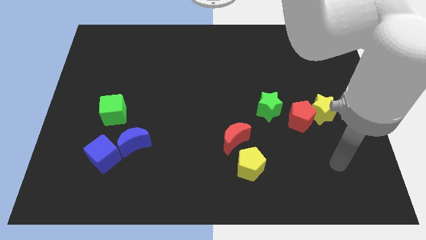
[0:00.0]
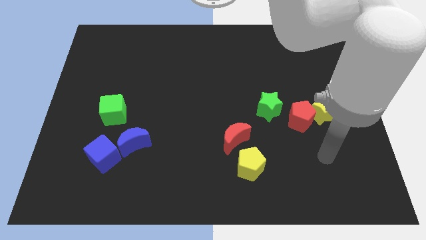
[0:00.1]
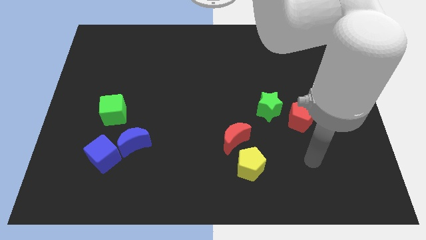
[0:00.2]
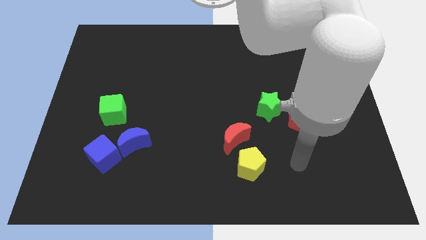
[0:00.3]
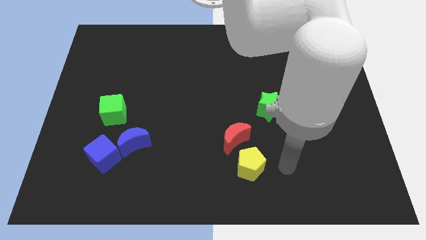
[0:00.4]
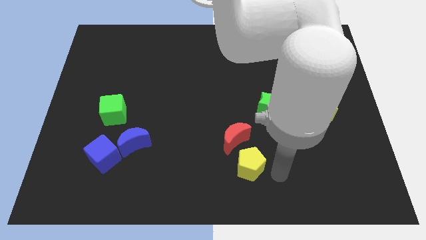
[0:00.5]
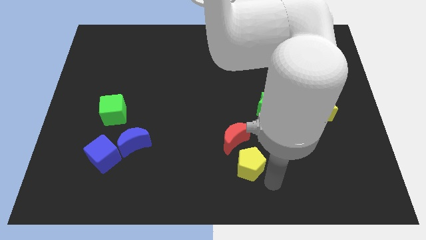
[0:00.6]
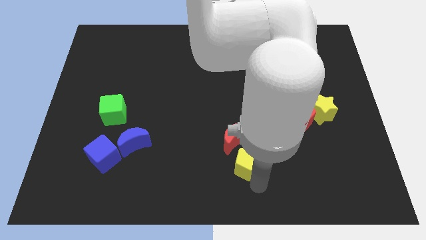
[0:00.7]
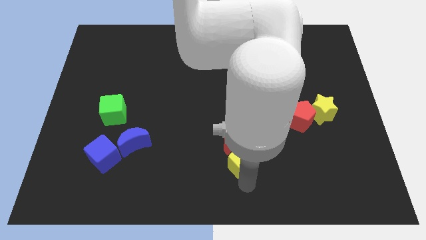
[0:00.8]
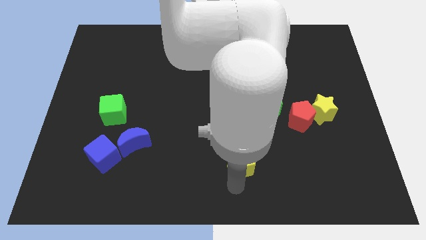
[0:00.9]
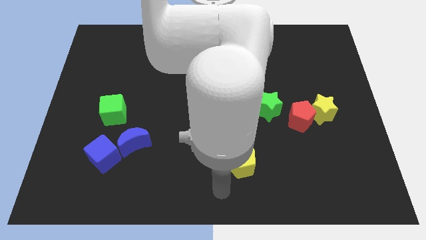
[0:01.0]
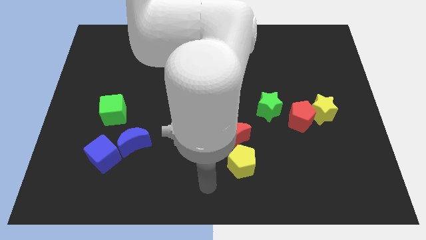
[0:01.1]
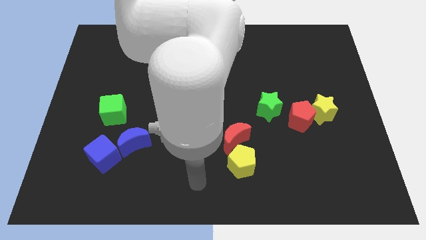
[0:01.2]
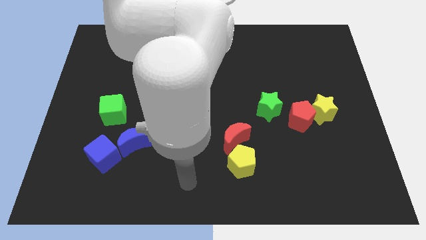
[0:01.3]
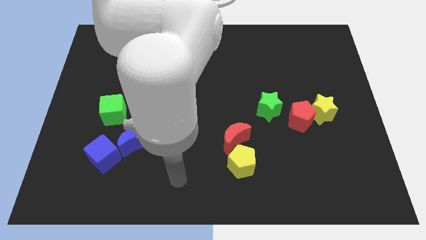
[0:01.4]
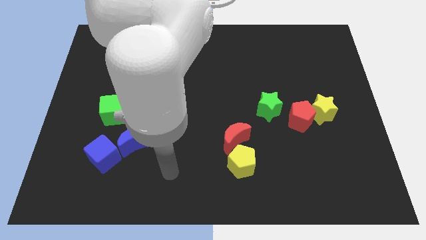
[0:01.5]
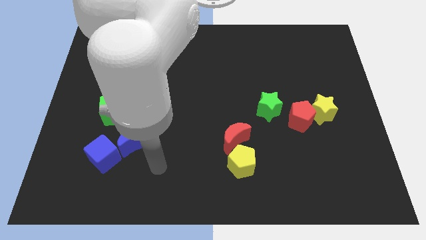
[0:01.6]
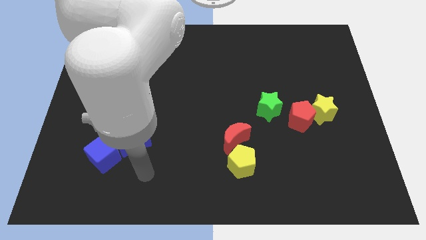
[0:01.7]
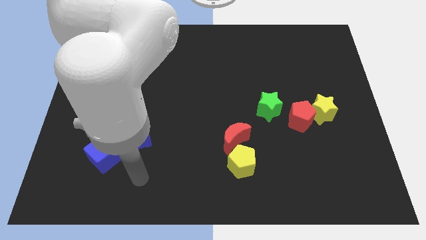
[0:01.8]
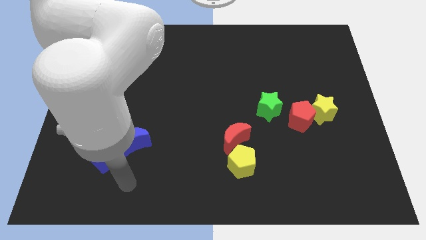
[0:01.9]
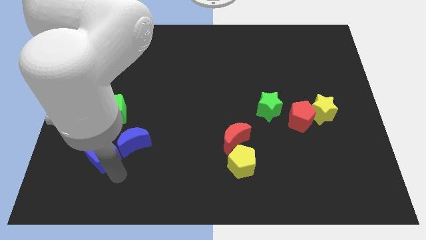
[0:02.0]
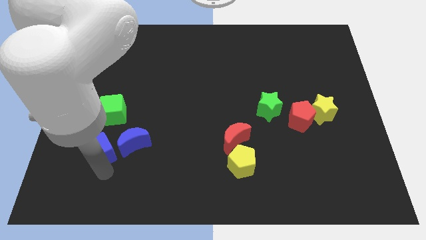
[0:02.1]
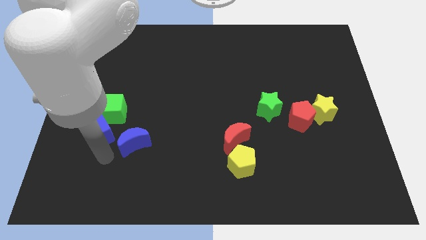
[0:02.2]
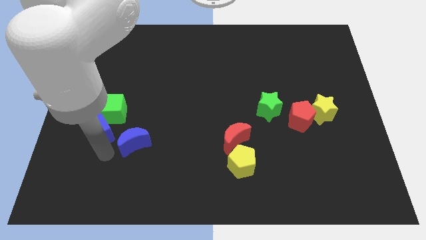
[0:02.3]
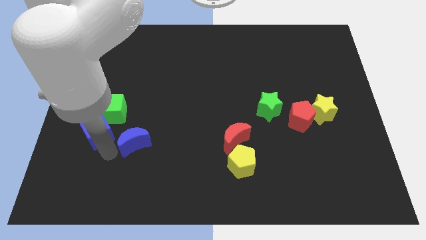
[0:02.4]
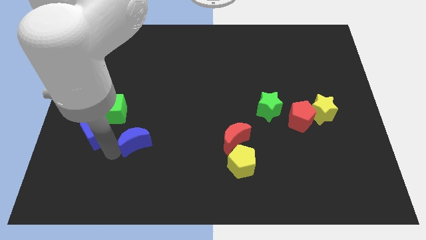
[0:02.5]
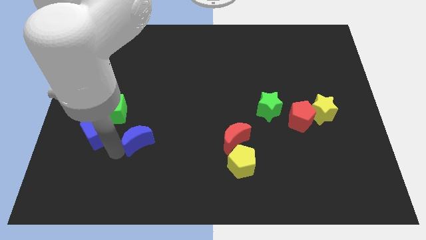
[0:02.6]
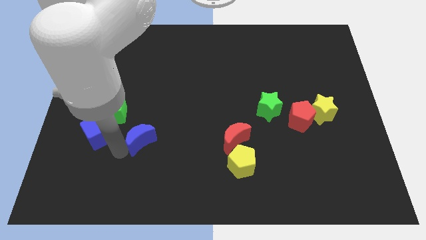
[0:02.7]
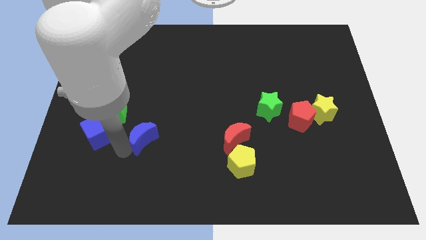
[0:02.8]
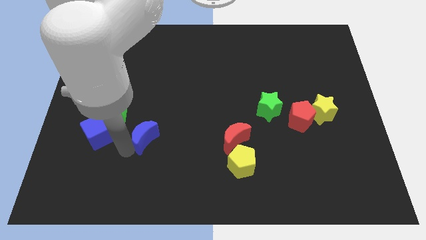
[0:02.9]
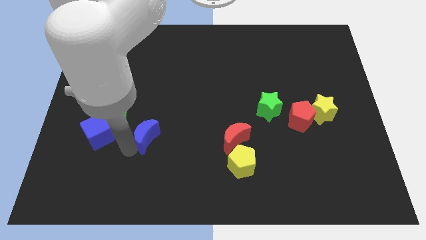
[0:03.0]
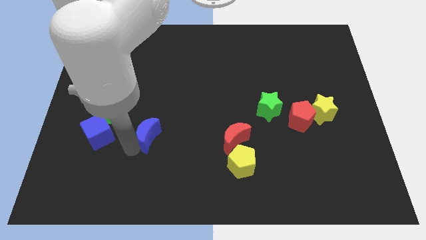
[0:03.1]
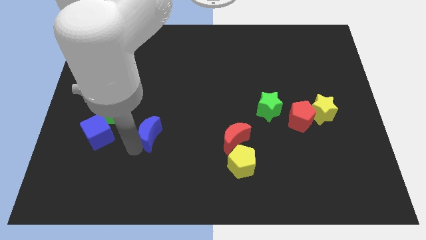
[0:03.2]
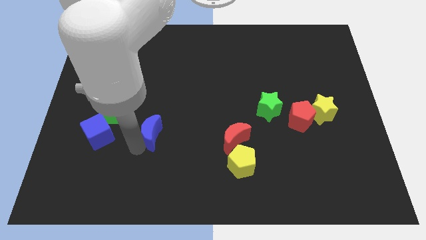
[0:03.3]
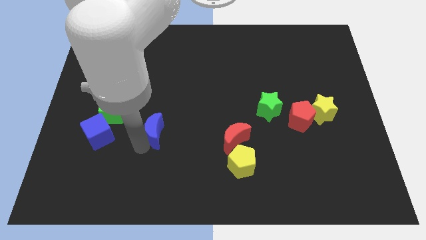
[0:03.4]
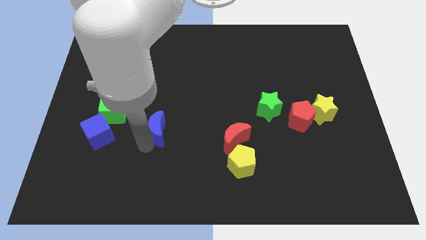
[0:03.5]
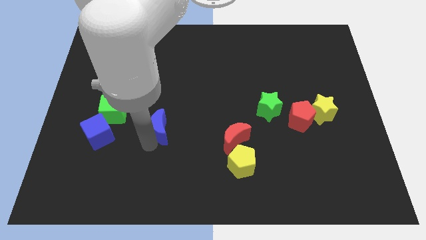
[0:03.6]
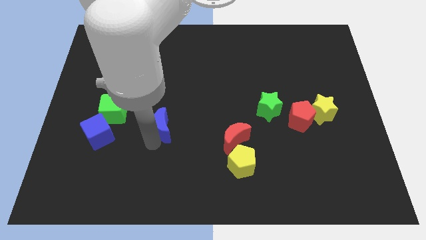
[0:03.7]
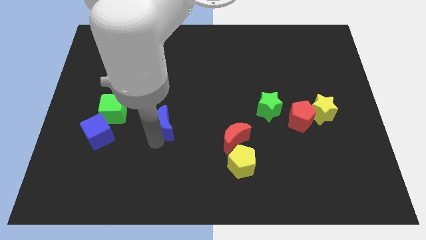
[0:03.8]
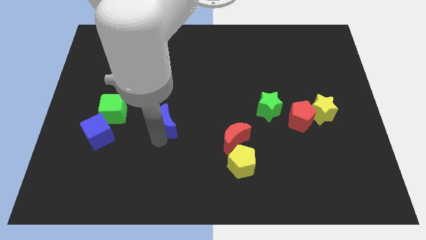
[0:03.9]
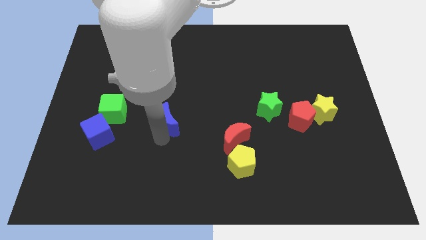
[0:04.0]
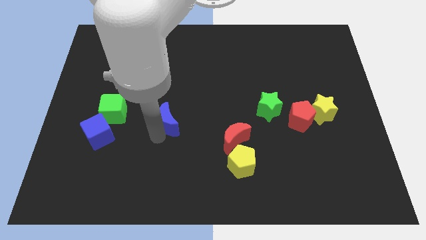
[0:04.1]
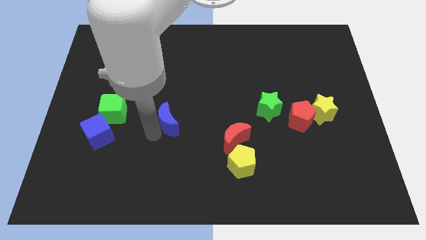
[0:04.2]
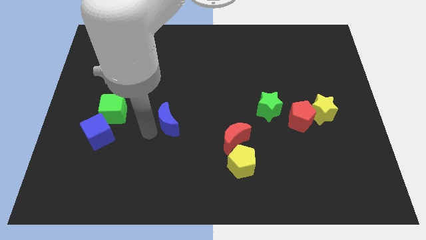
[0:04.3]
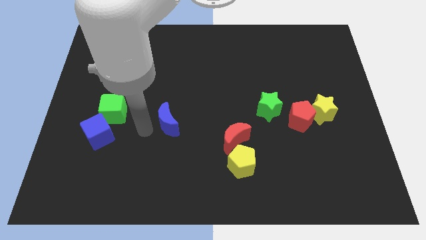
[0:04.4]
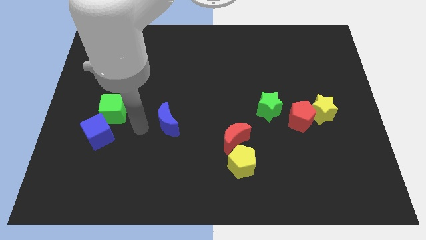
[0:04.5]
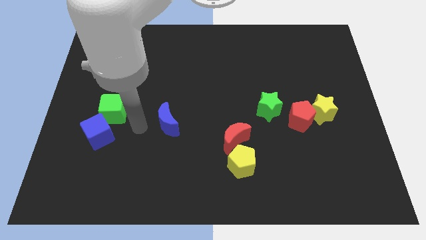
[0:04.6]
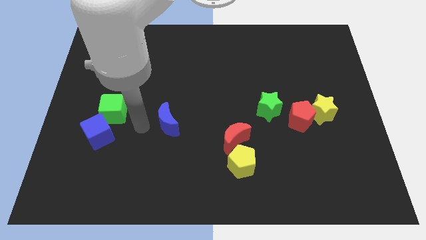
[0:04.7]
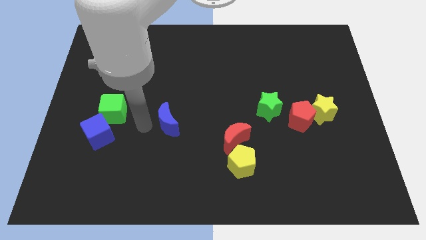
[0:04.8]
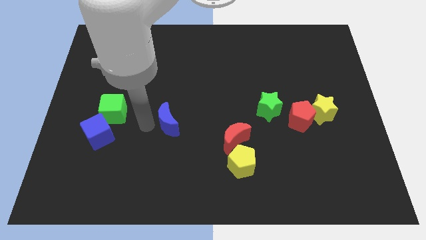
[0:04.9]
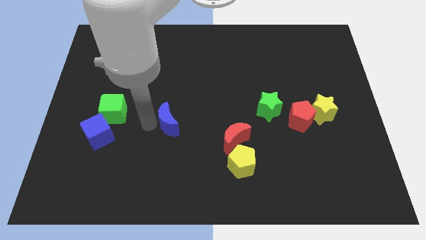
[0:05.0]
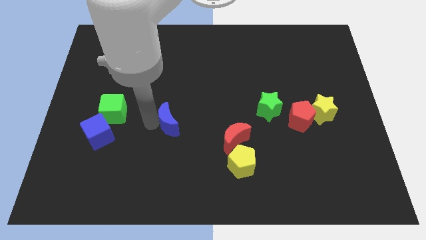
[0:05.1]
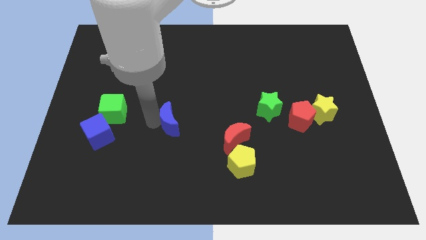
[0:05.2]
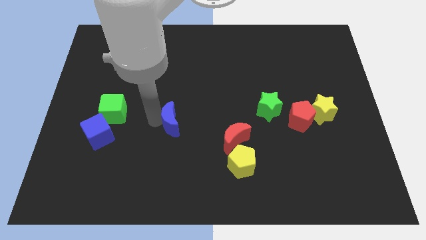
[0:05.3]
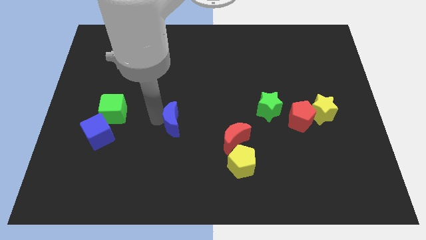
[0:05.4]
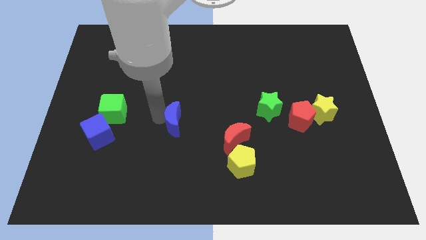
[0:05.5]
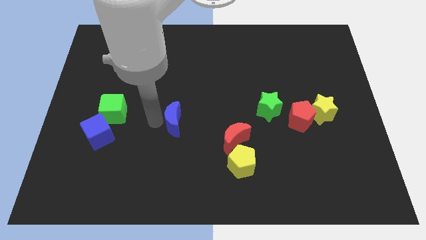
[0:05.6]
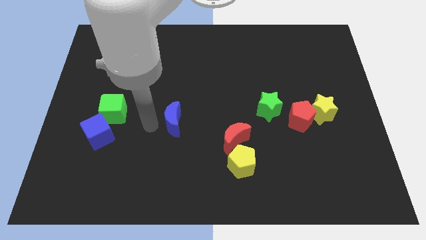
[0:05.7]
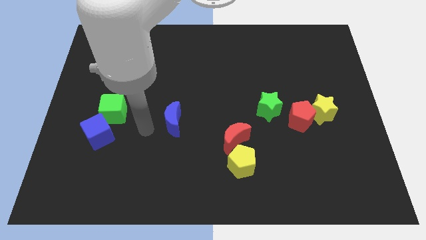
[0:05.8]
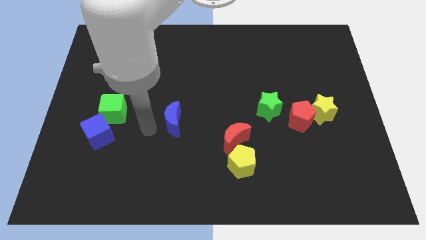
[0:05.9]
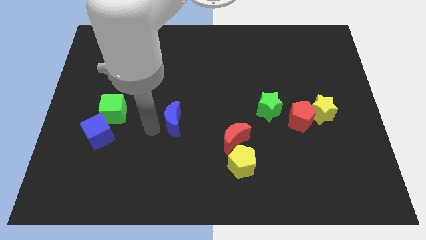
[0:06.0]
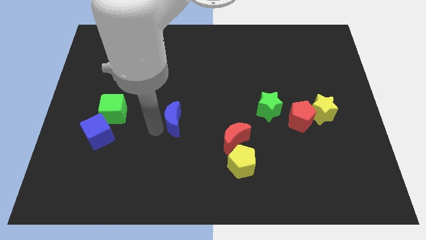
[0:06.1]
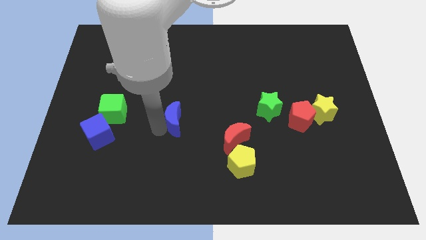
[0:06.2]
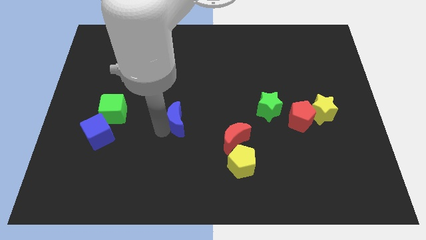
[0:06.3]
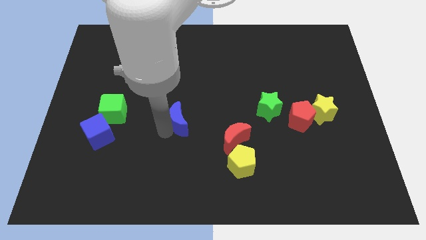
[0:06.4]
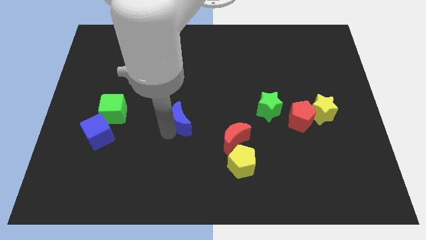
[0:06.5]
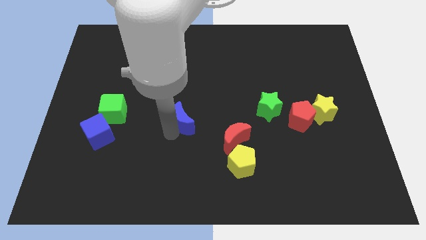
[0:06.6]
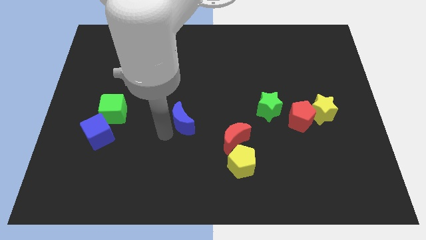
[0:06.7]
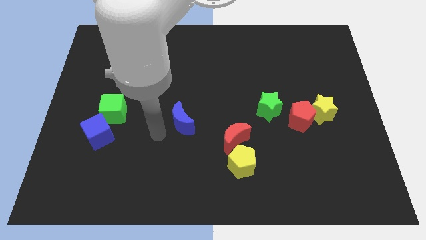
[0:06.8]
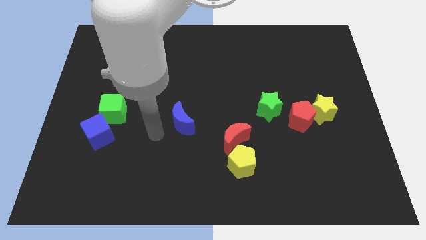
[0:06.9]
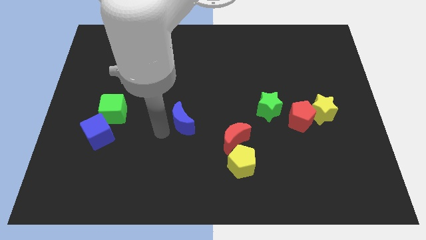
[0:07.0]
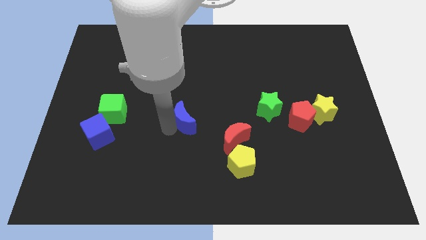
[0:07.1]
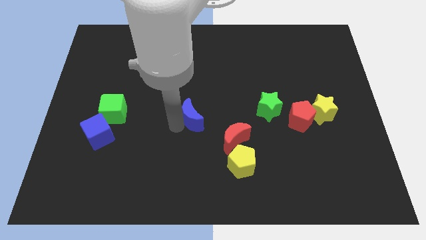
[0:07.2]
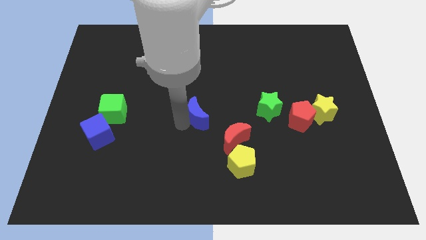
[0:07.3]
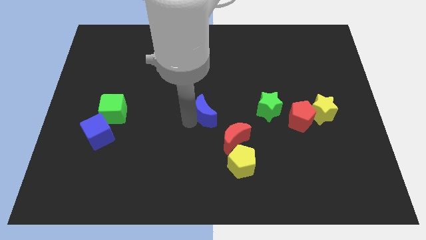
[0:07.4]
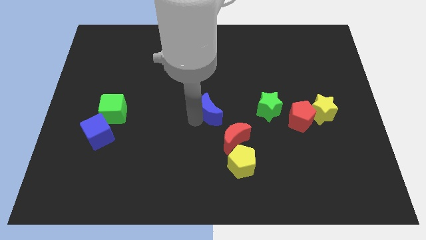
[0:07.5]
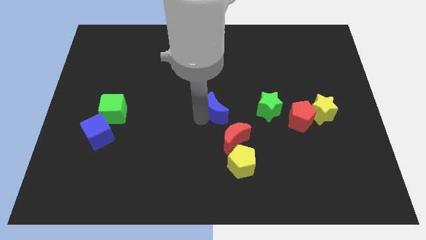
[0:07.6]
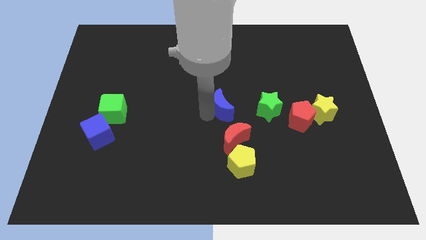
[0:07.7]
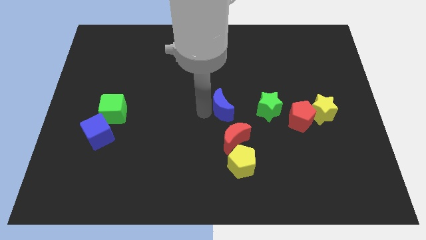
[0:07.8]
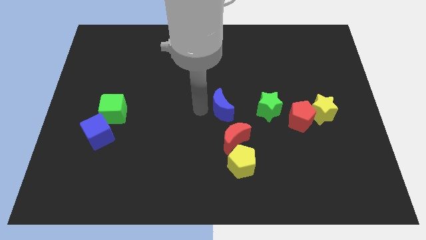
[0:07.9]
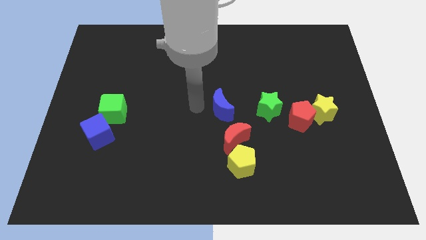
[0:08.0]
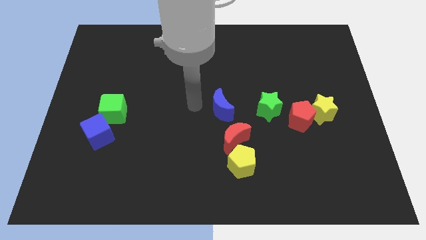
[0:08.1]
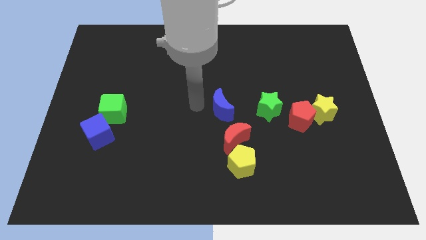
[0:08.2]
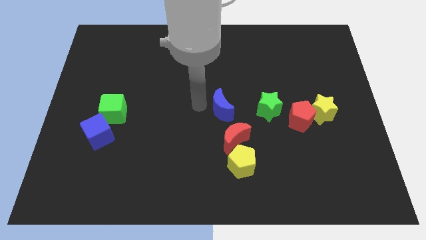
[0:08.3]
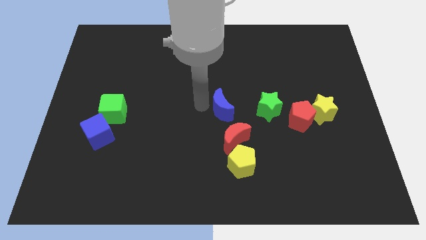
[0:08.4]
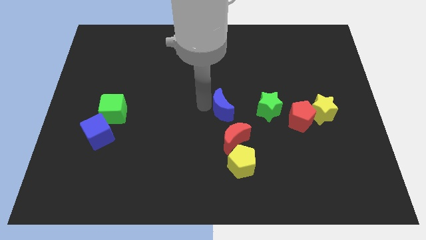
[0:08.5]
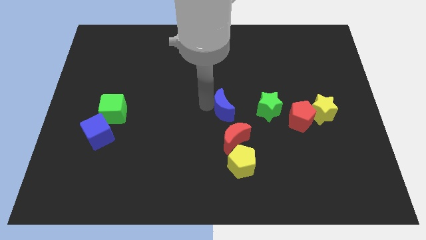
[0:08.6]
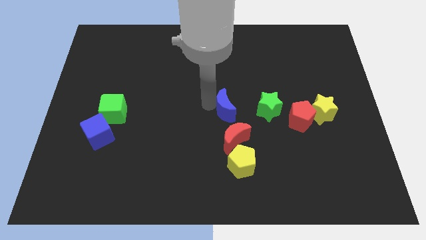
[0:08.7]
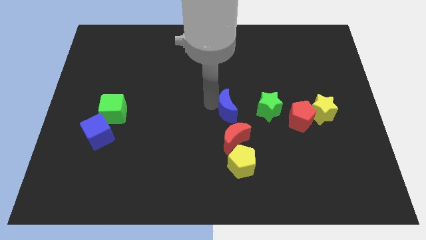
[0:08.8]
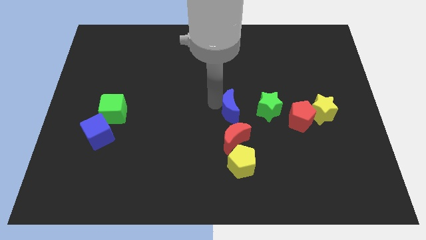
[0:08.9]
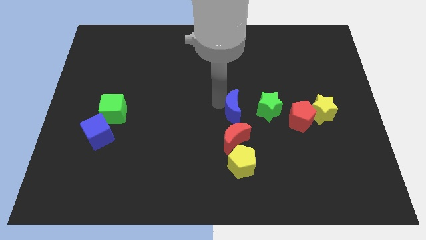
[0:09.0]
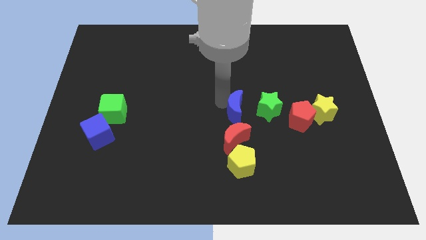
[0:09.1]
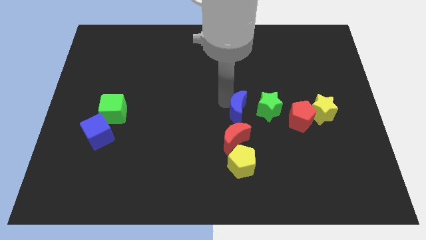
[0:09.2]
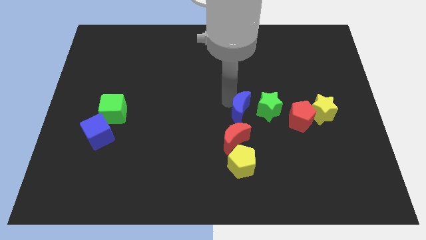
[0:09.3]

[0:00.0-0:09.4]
push the blue moon right
